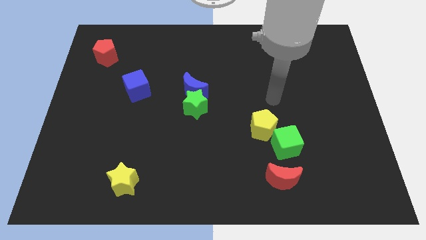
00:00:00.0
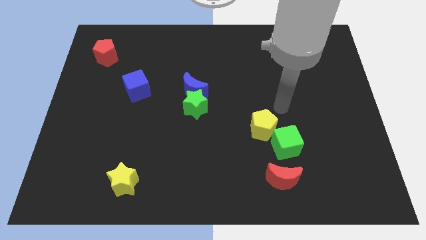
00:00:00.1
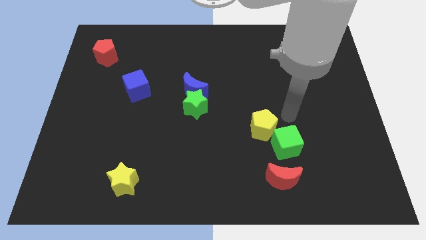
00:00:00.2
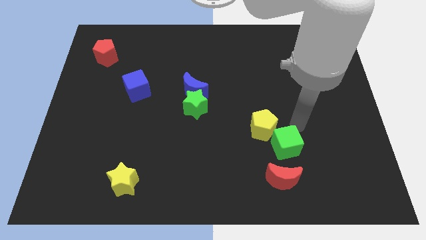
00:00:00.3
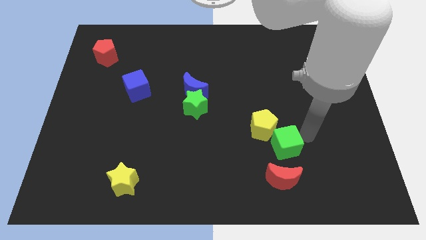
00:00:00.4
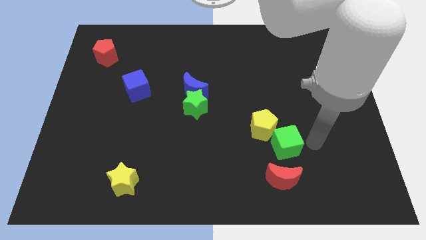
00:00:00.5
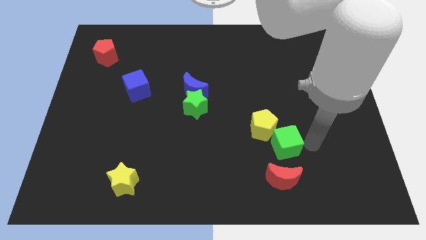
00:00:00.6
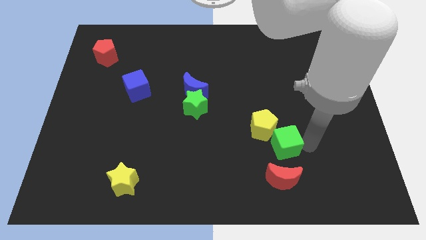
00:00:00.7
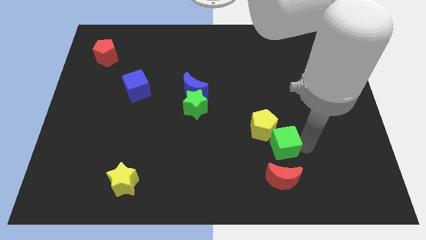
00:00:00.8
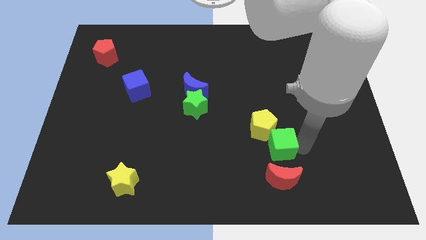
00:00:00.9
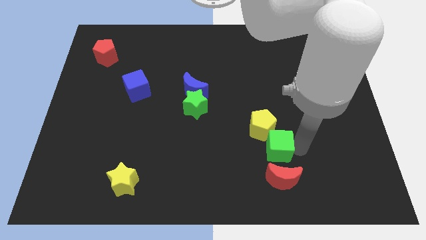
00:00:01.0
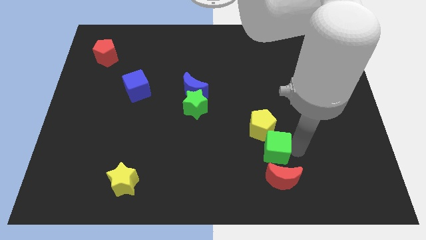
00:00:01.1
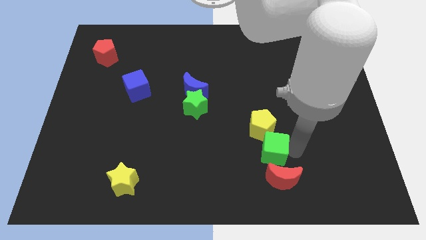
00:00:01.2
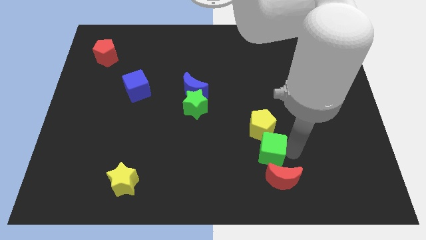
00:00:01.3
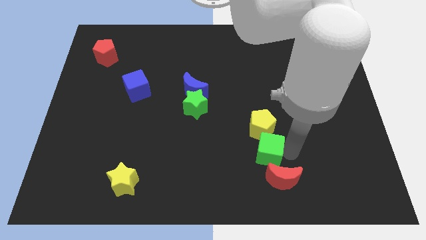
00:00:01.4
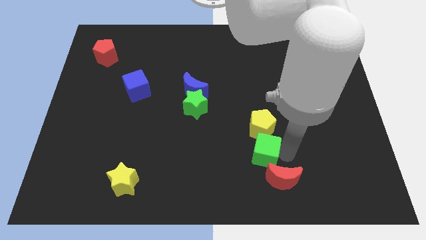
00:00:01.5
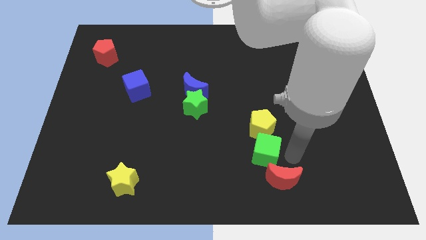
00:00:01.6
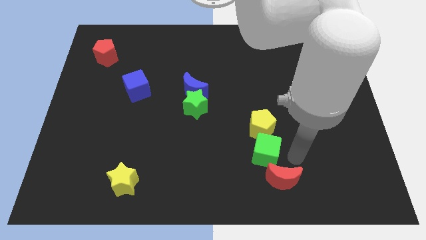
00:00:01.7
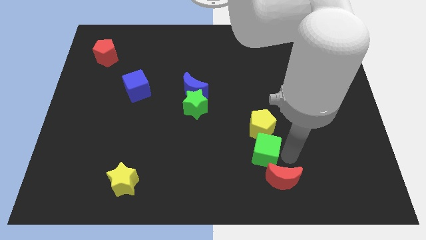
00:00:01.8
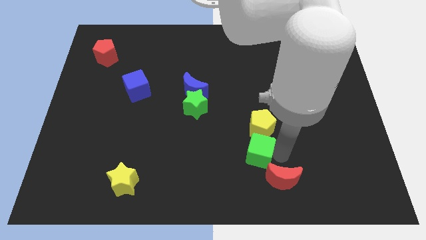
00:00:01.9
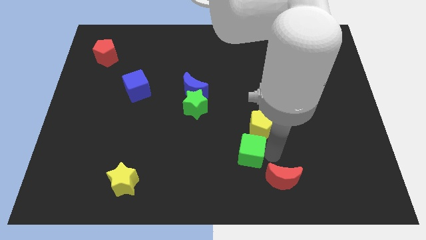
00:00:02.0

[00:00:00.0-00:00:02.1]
slightly move the green cube to the left

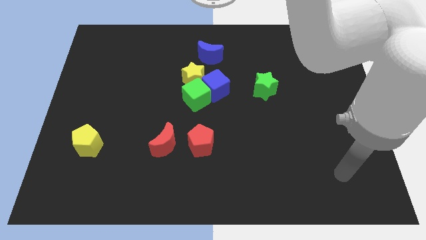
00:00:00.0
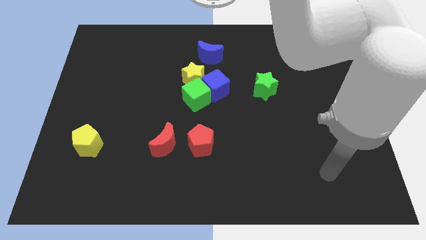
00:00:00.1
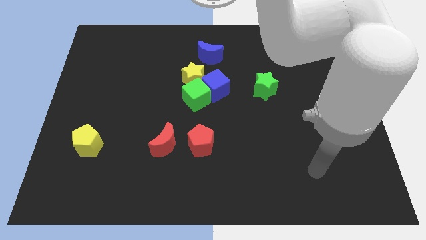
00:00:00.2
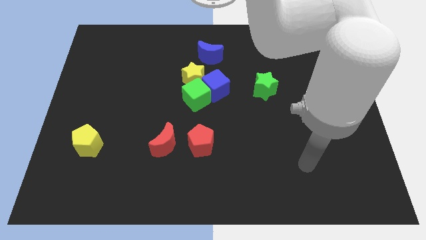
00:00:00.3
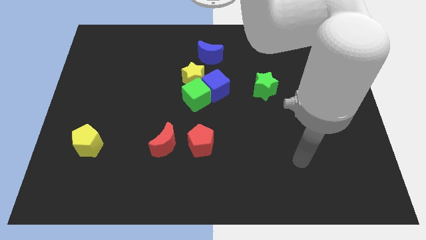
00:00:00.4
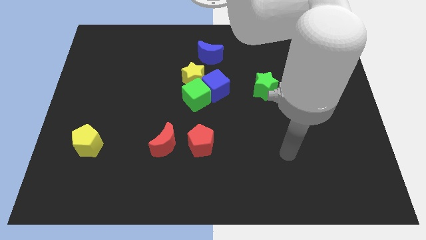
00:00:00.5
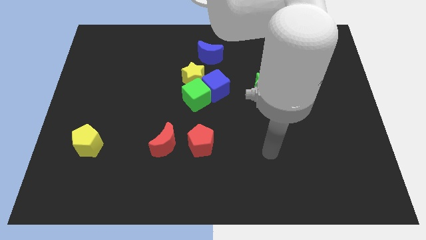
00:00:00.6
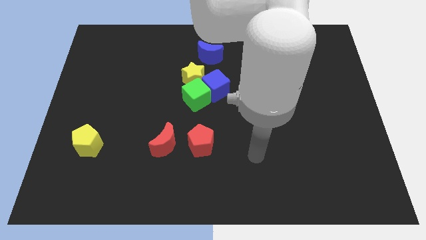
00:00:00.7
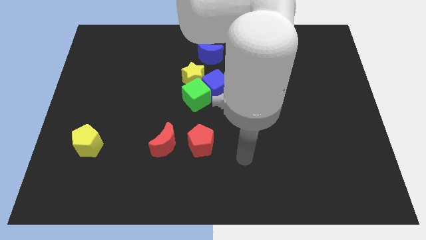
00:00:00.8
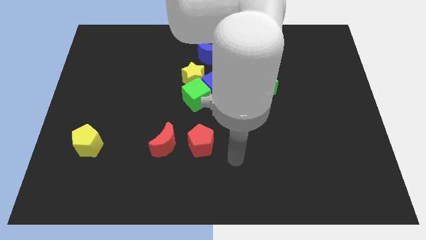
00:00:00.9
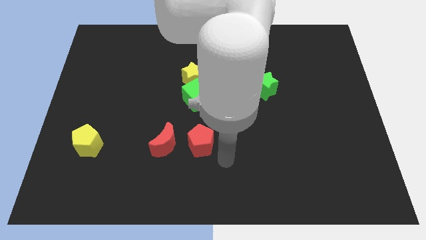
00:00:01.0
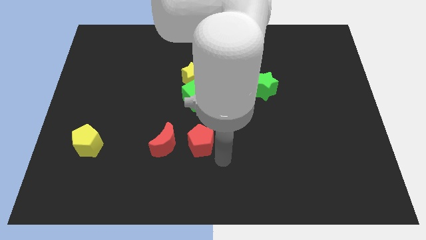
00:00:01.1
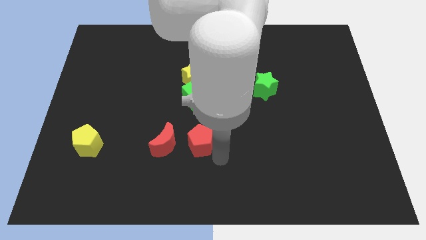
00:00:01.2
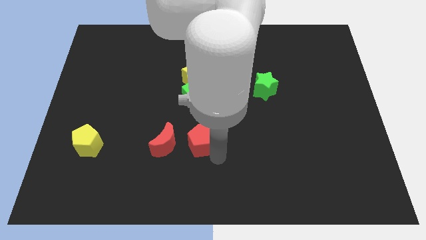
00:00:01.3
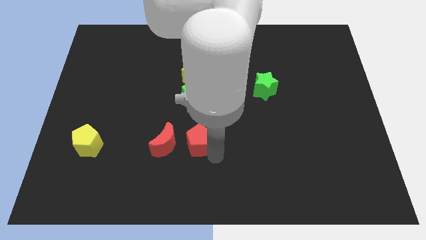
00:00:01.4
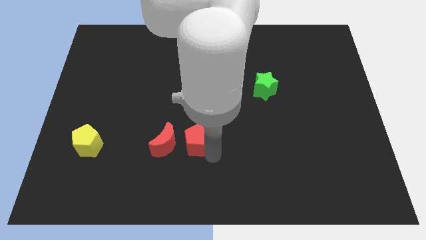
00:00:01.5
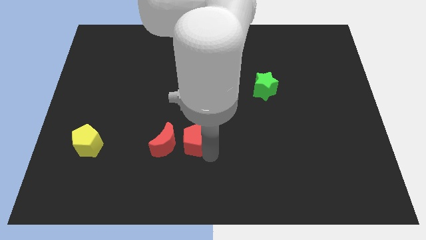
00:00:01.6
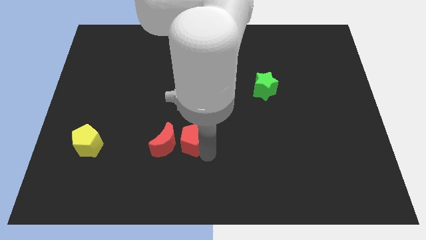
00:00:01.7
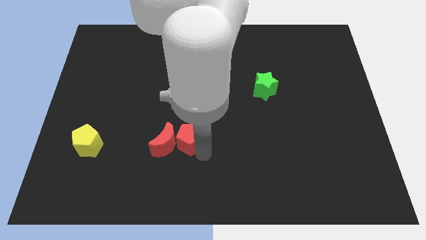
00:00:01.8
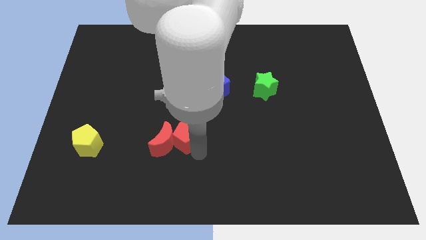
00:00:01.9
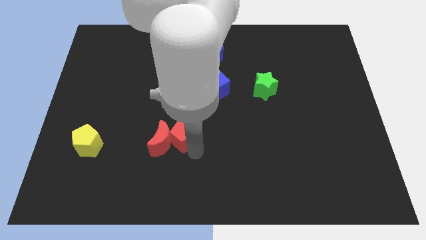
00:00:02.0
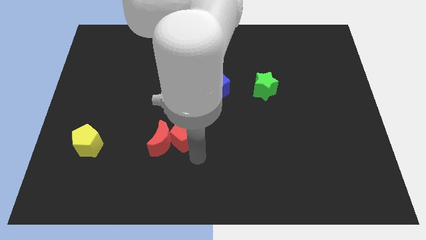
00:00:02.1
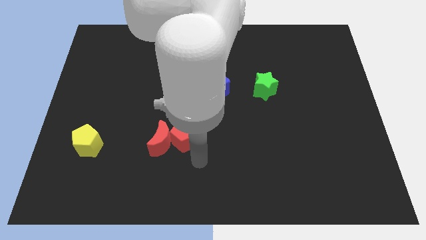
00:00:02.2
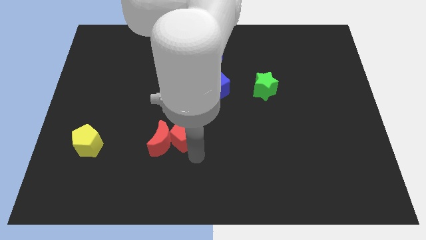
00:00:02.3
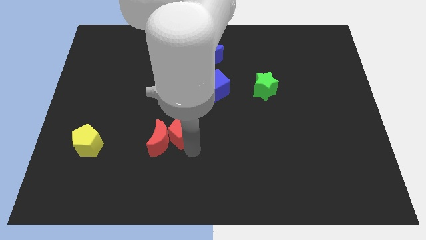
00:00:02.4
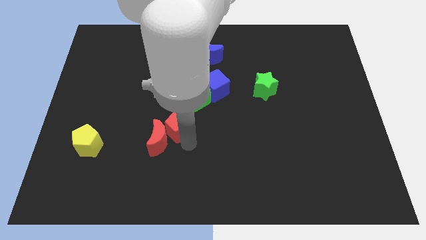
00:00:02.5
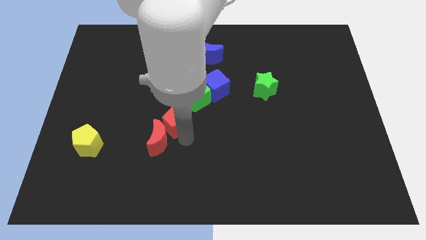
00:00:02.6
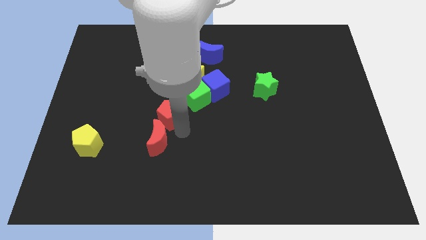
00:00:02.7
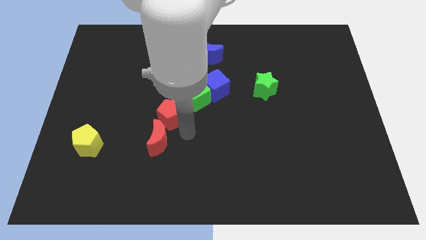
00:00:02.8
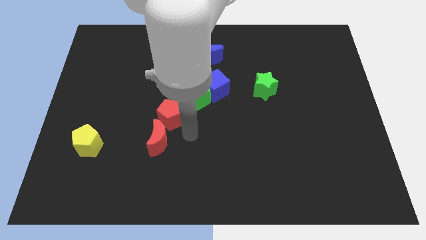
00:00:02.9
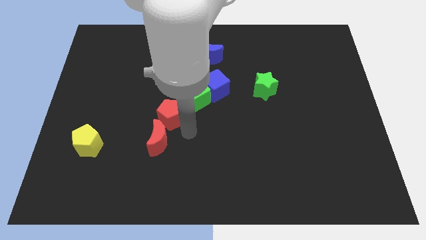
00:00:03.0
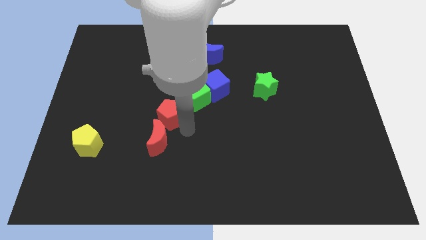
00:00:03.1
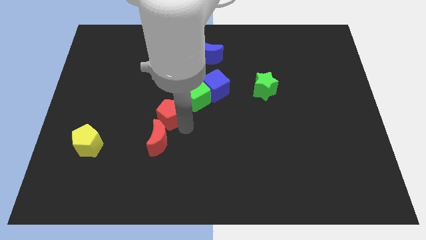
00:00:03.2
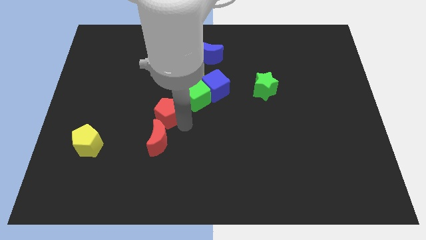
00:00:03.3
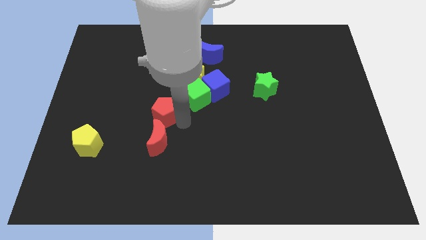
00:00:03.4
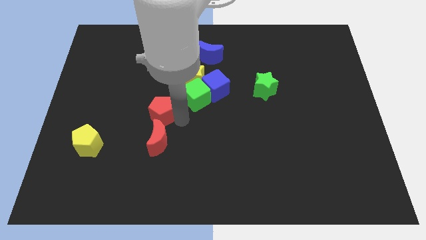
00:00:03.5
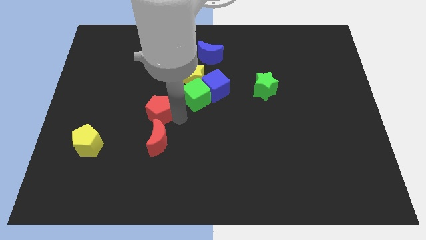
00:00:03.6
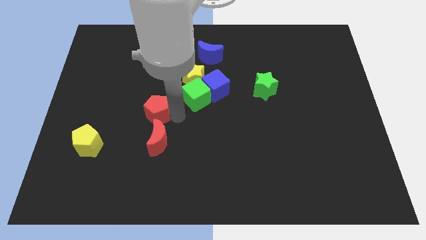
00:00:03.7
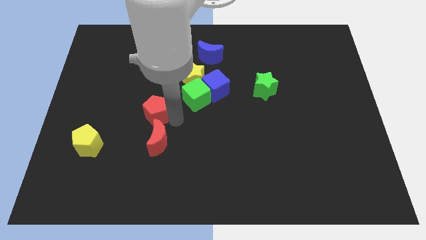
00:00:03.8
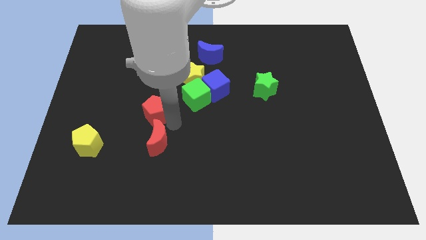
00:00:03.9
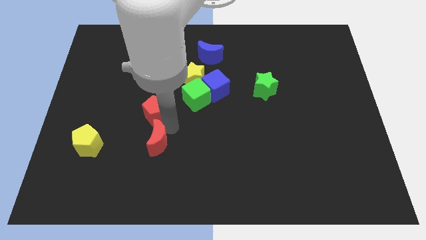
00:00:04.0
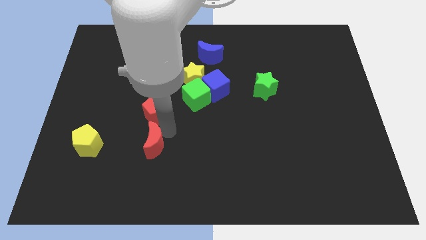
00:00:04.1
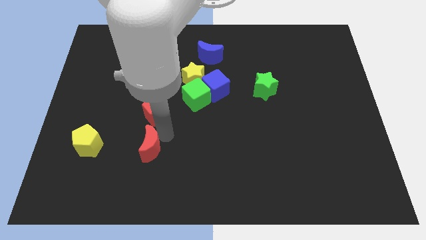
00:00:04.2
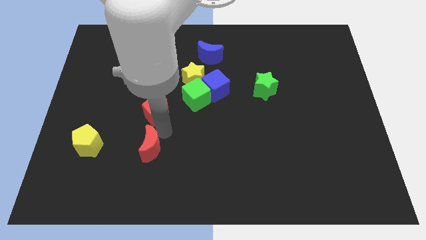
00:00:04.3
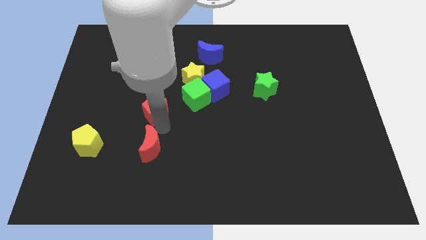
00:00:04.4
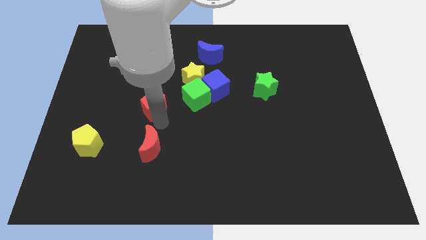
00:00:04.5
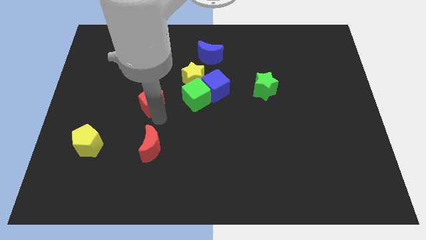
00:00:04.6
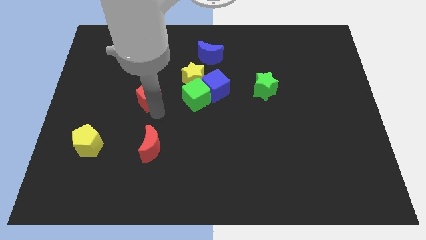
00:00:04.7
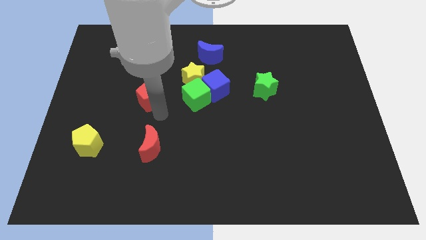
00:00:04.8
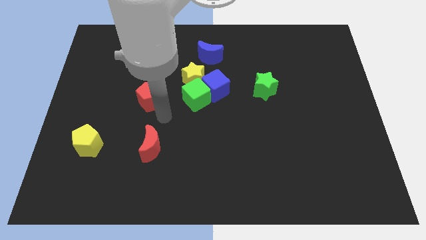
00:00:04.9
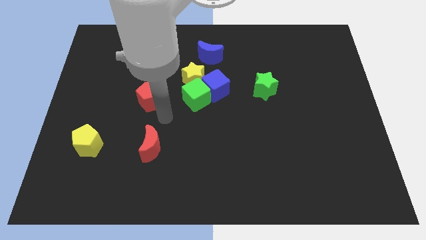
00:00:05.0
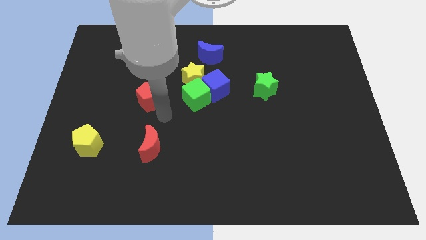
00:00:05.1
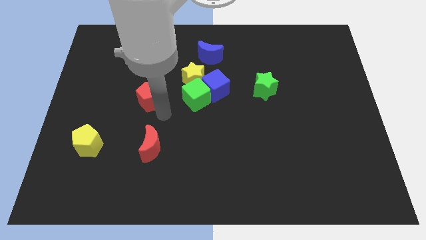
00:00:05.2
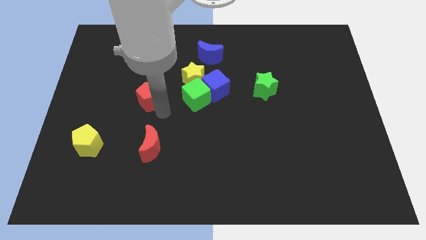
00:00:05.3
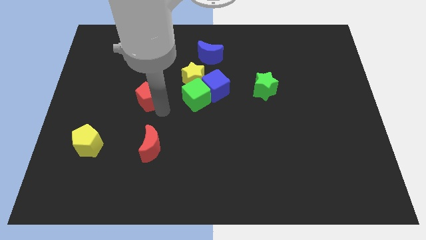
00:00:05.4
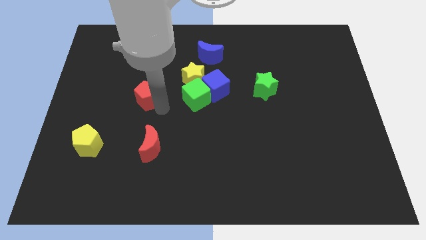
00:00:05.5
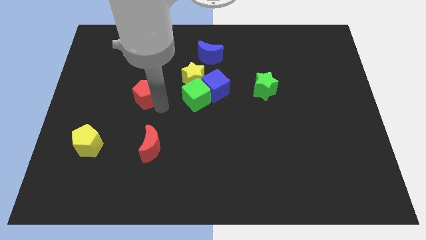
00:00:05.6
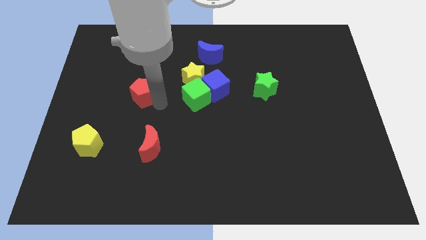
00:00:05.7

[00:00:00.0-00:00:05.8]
slide the red pentagon up and to the left

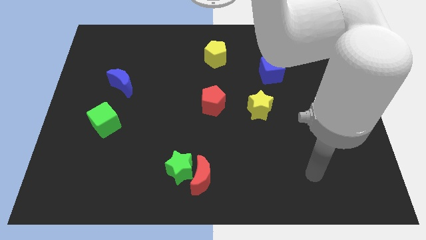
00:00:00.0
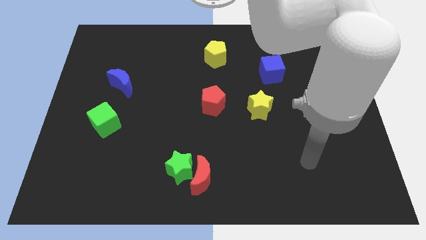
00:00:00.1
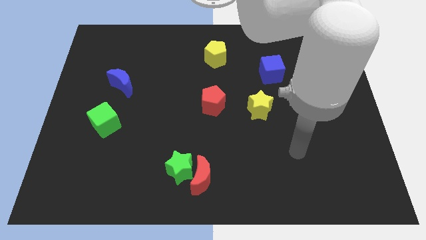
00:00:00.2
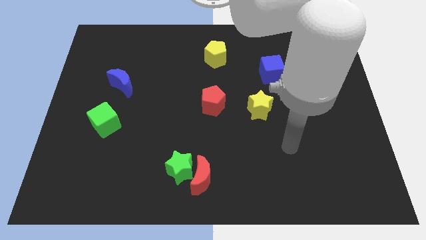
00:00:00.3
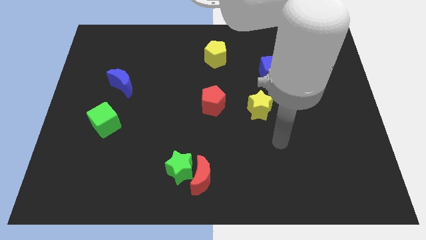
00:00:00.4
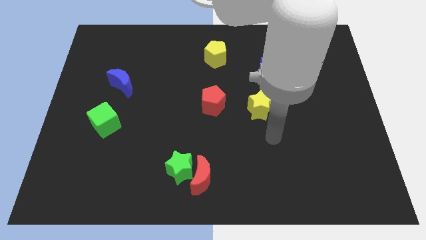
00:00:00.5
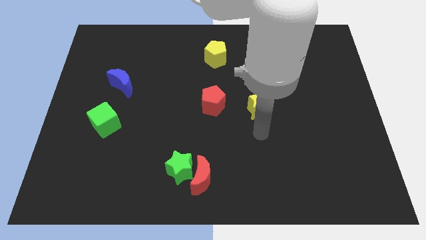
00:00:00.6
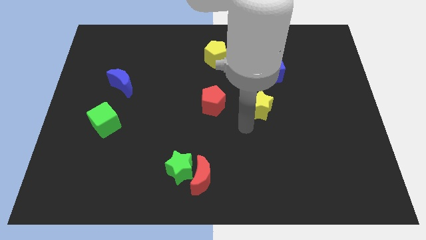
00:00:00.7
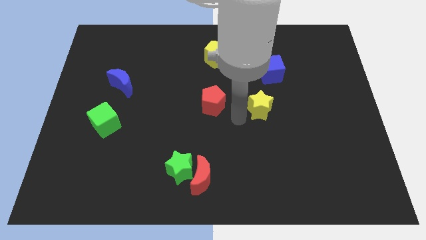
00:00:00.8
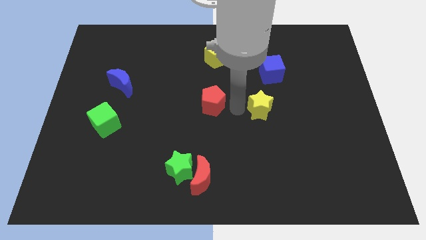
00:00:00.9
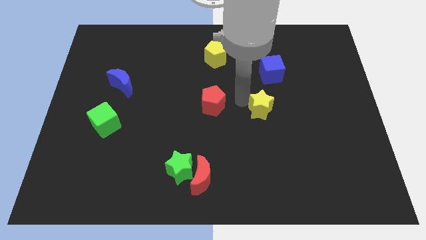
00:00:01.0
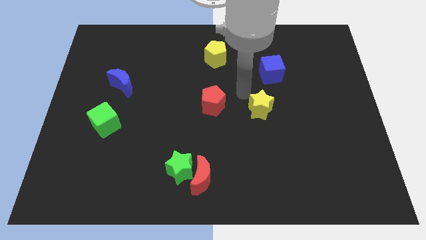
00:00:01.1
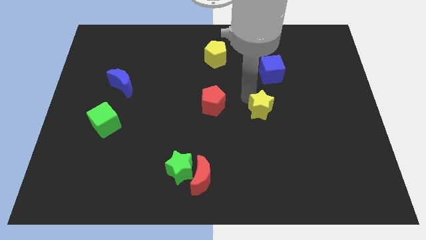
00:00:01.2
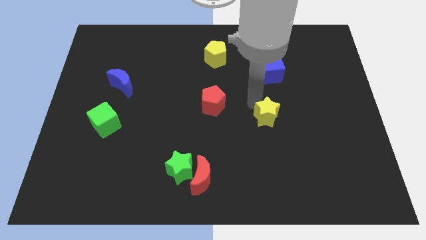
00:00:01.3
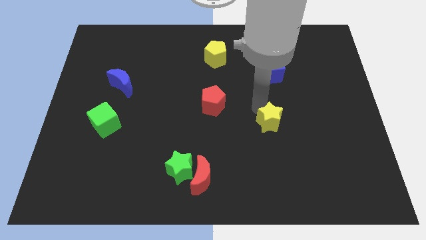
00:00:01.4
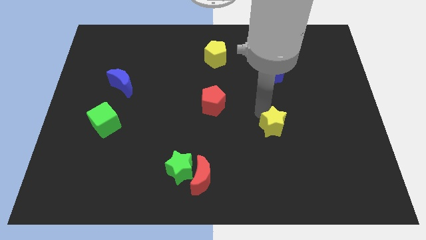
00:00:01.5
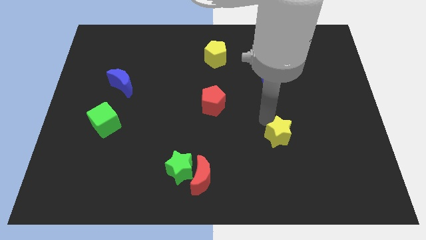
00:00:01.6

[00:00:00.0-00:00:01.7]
slightly slide the yellow star downwards and then right
